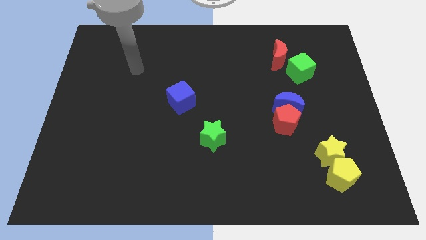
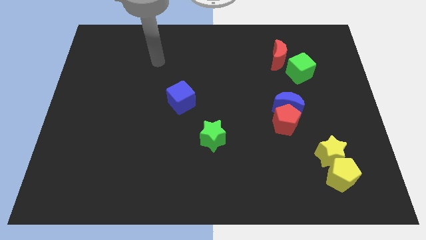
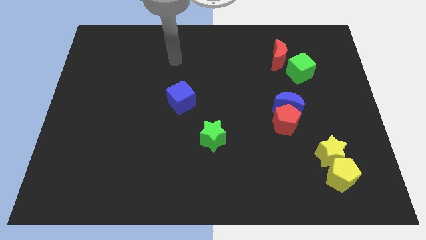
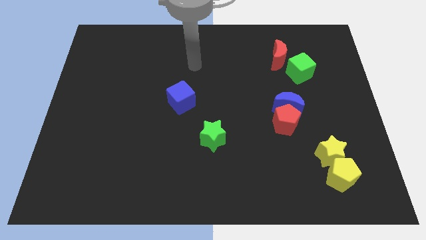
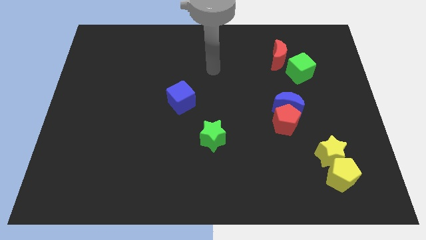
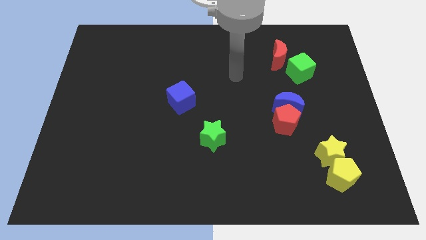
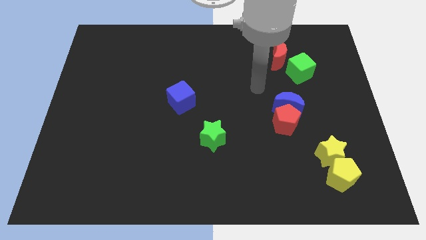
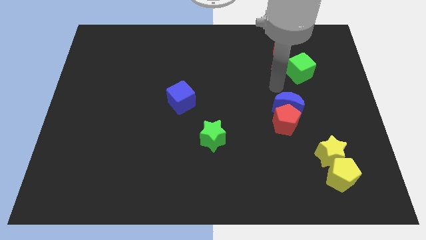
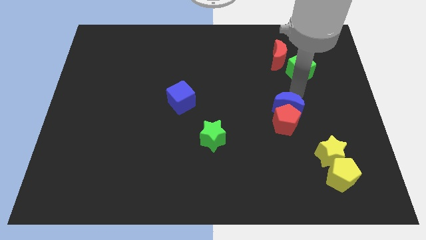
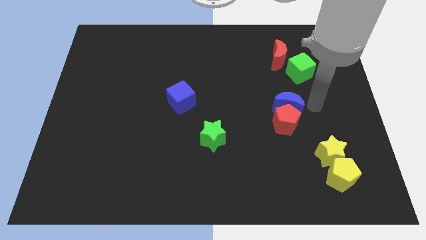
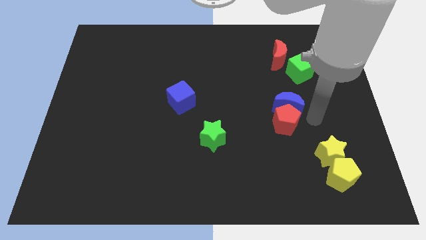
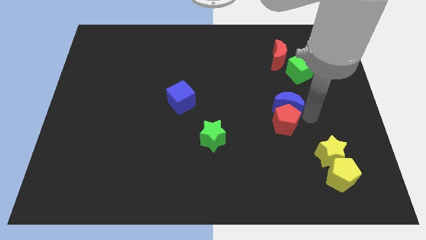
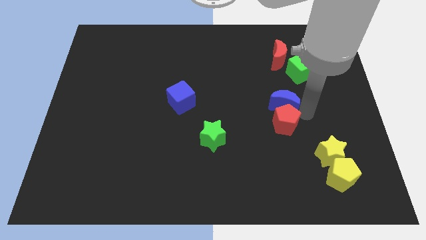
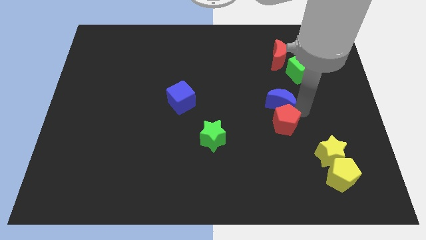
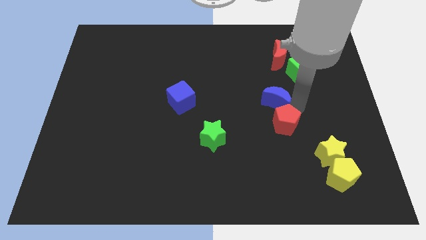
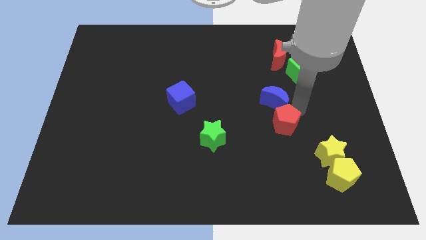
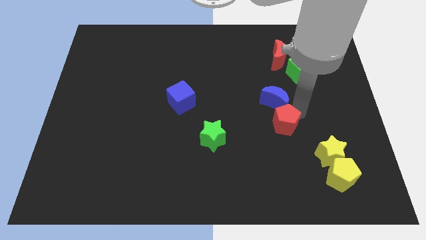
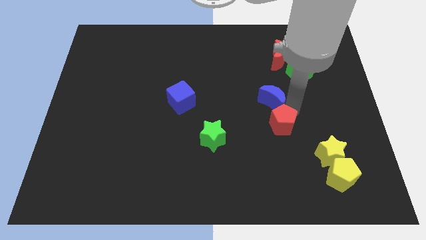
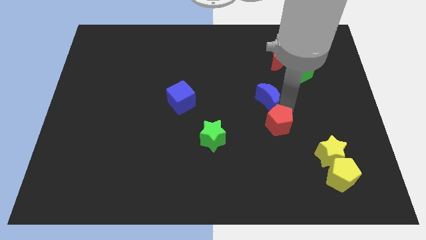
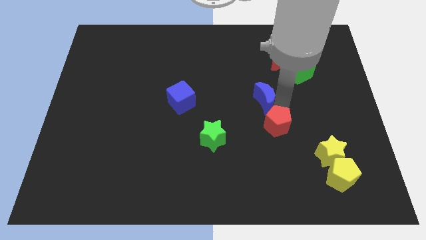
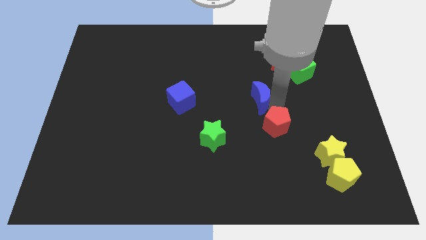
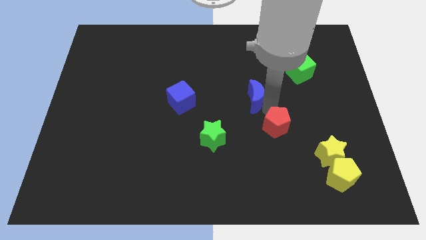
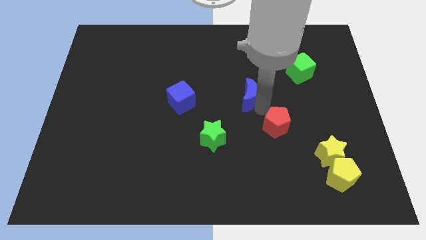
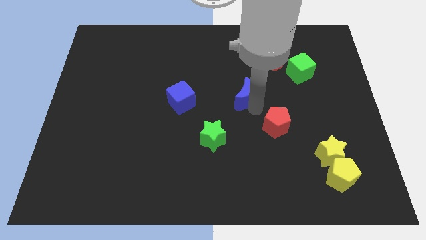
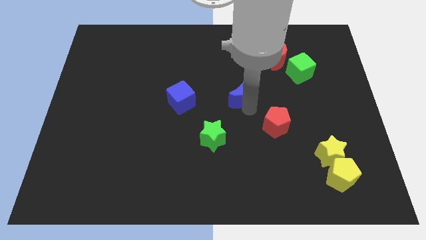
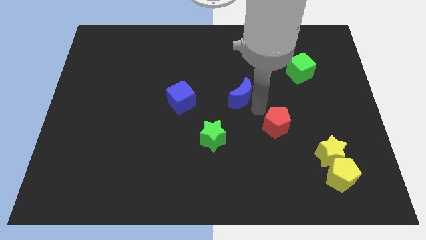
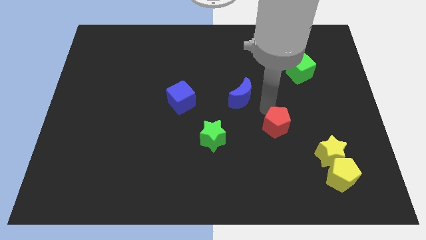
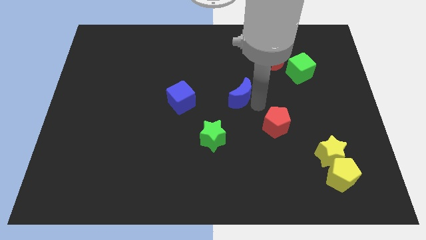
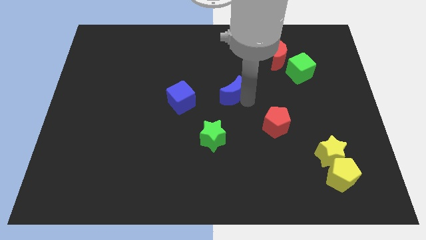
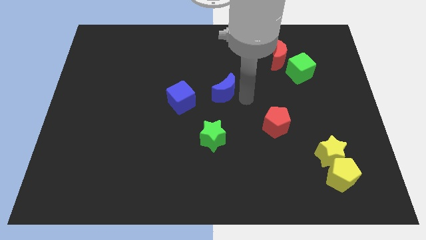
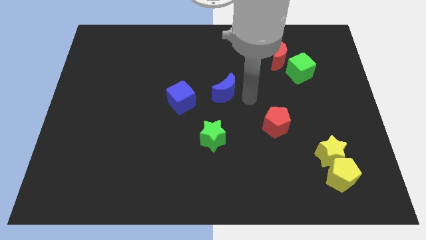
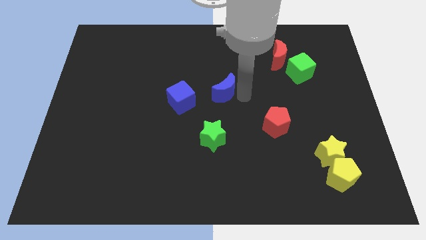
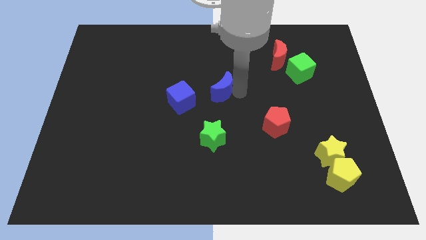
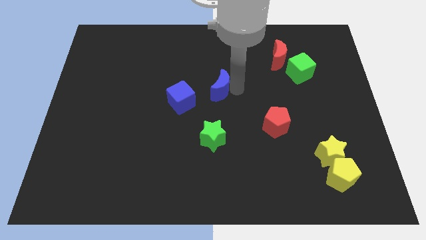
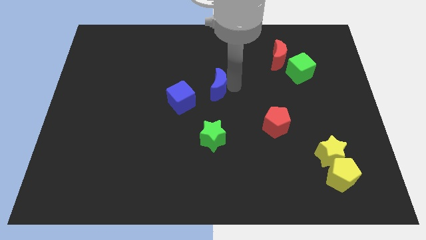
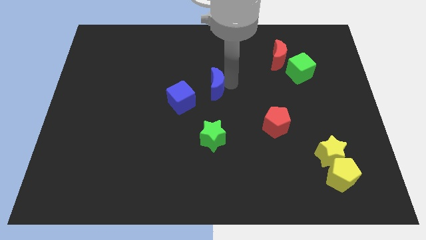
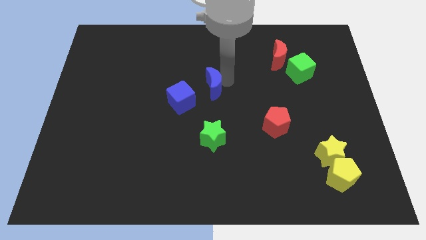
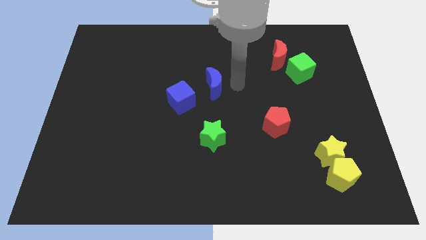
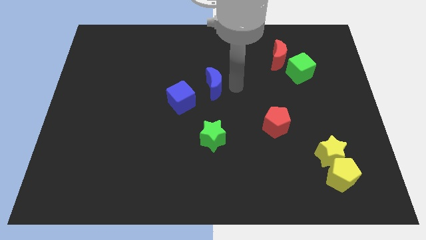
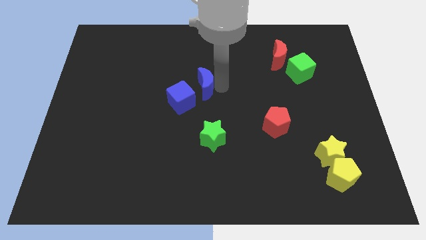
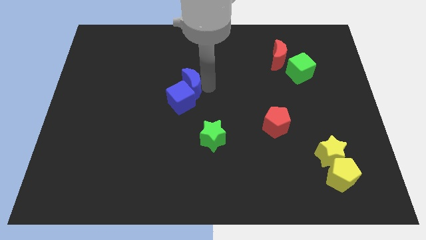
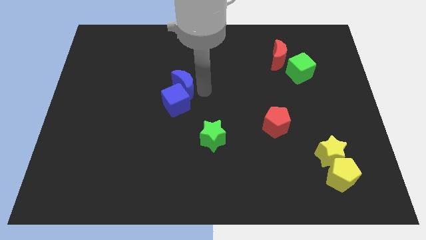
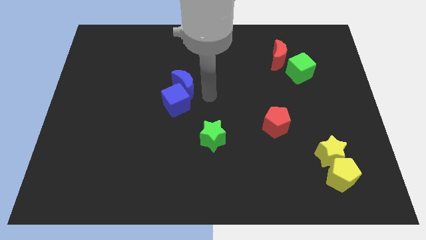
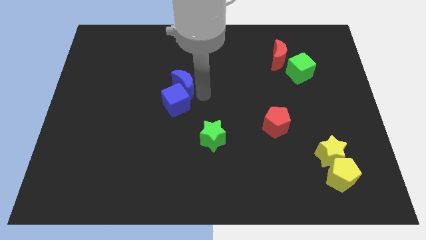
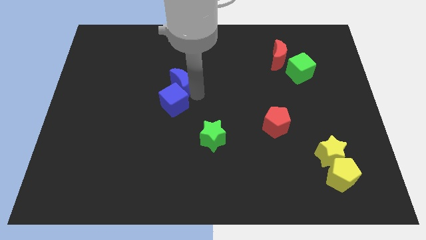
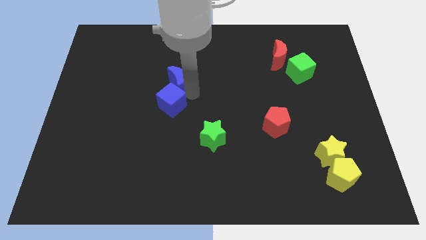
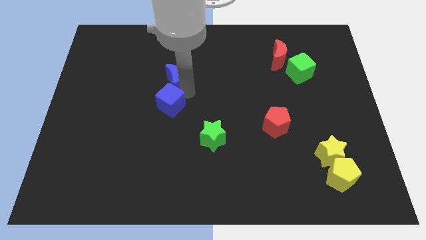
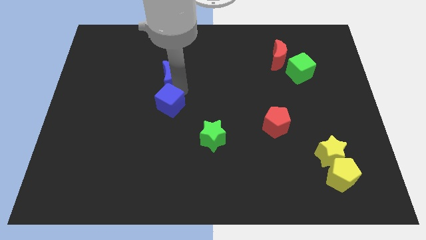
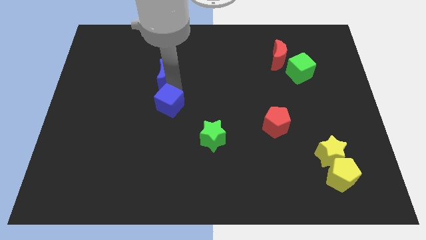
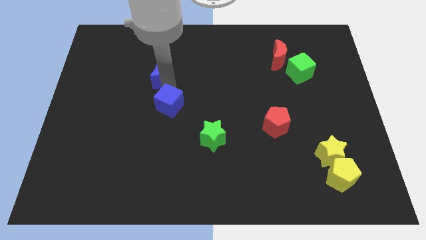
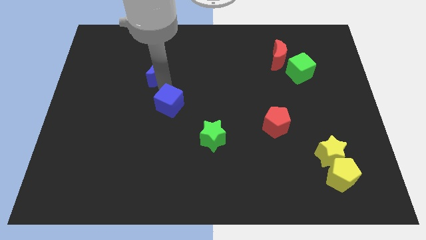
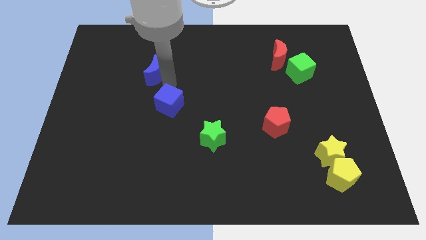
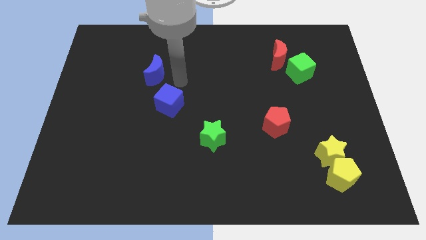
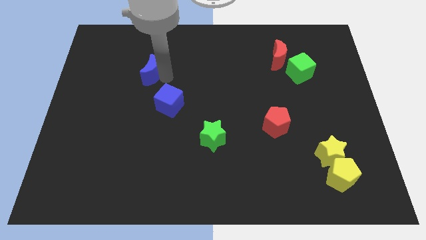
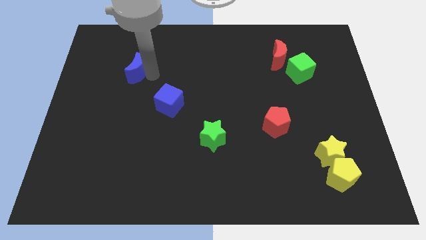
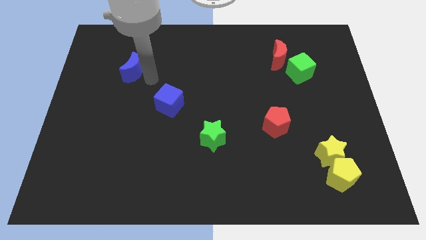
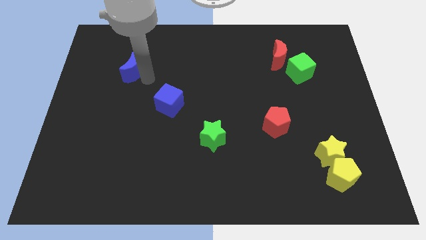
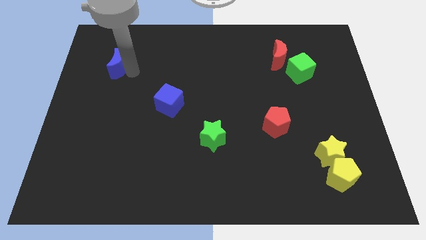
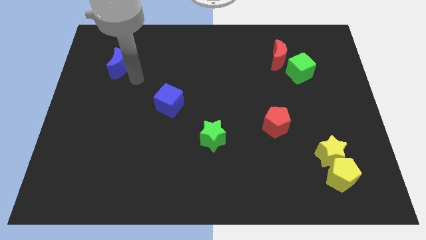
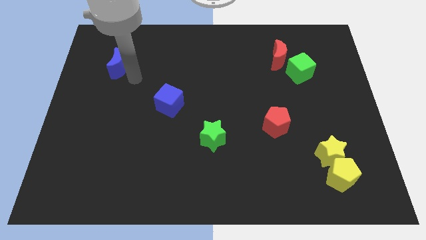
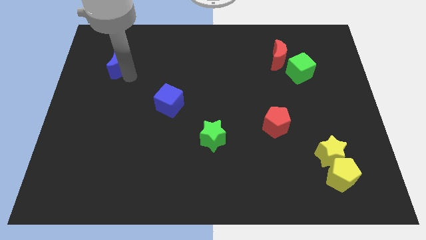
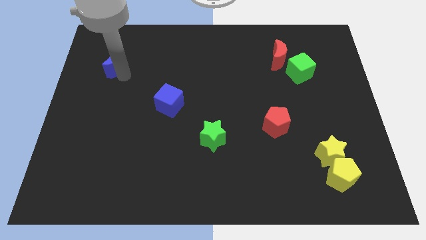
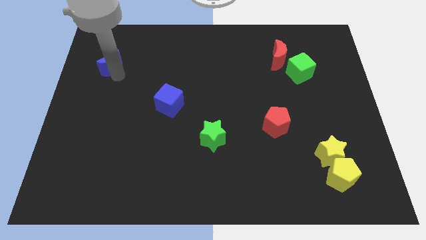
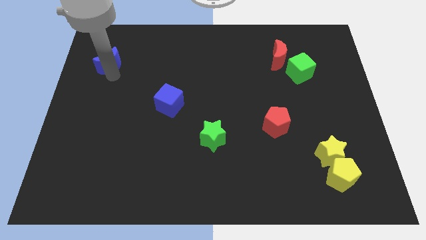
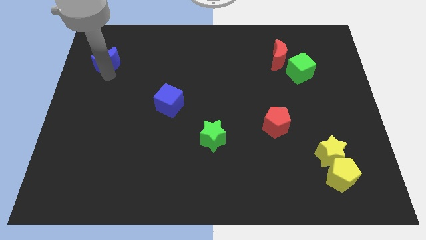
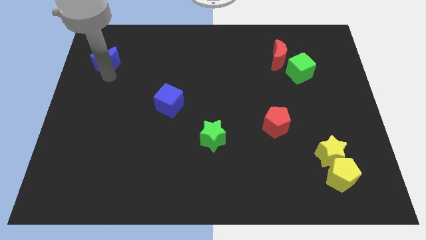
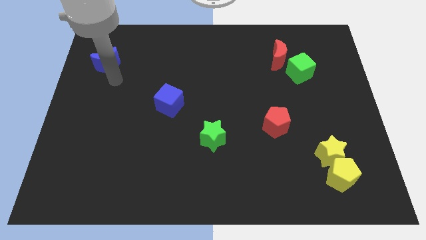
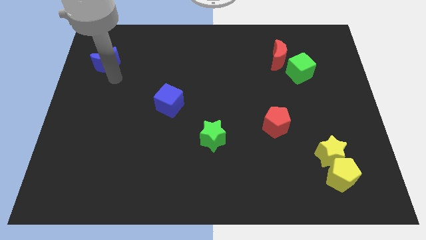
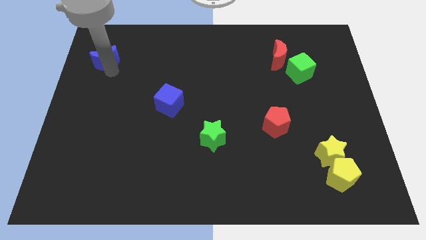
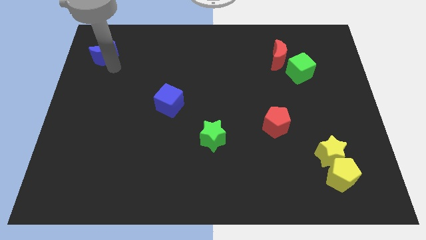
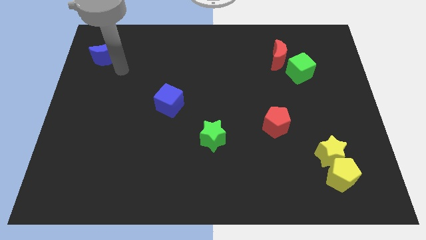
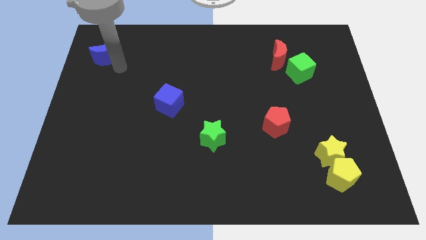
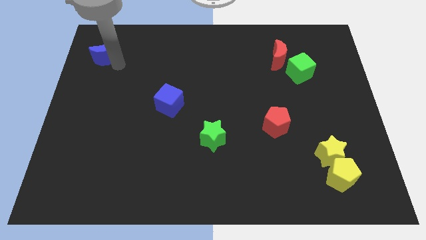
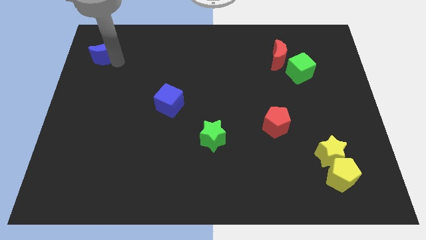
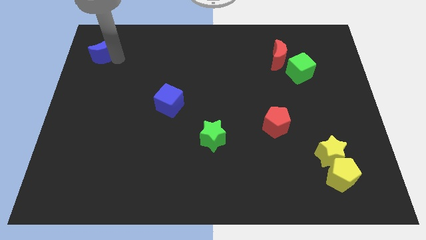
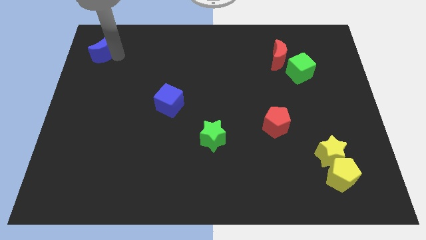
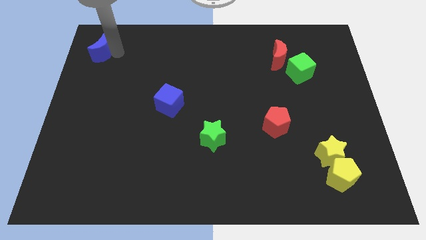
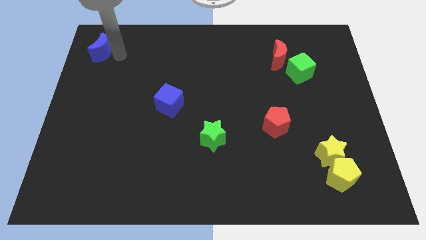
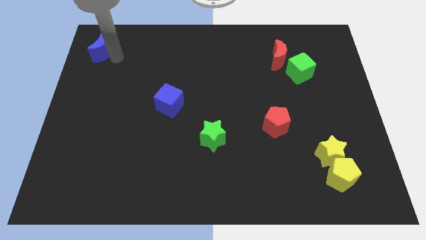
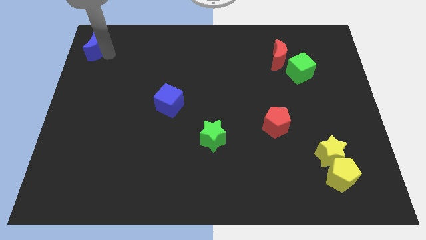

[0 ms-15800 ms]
push the blue moon to the top left corner
